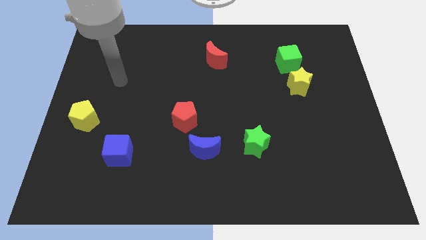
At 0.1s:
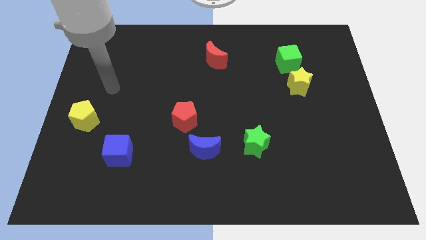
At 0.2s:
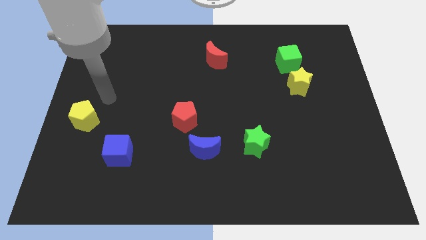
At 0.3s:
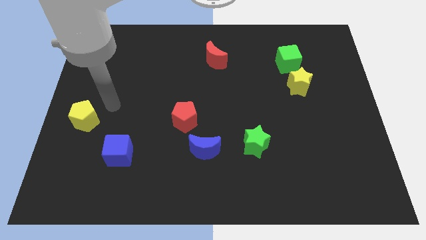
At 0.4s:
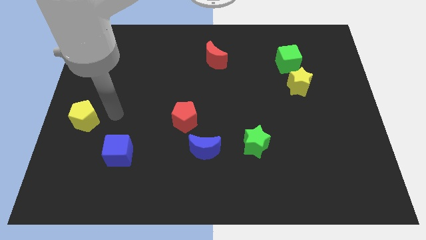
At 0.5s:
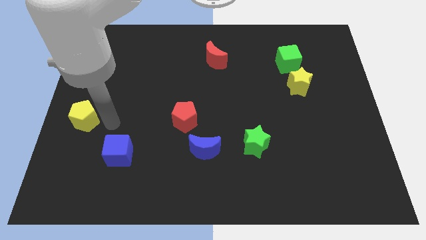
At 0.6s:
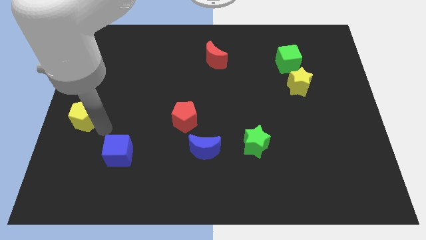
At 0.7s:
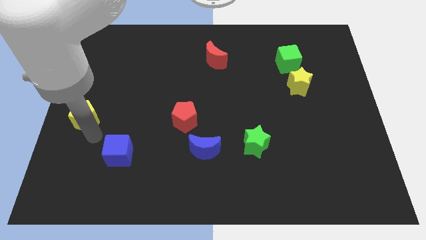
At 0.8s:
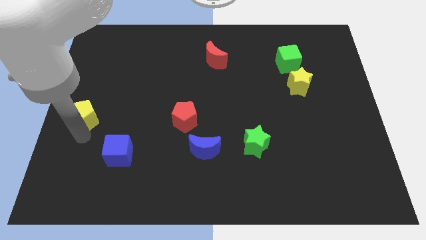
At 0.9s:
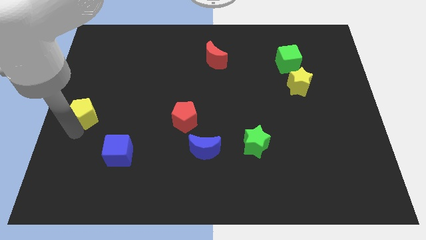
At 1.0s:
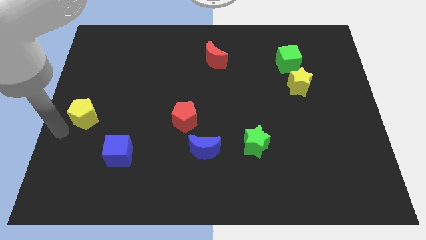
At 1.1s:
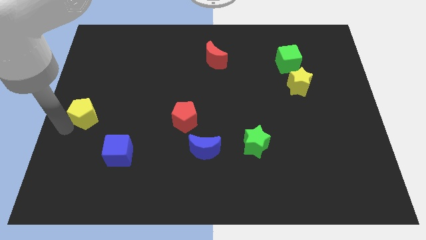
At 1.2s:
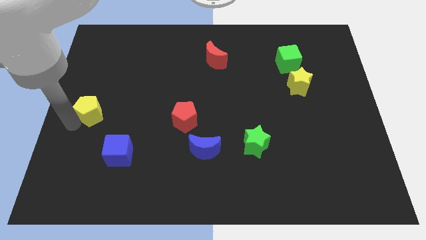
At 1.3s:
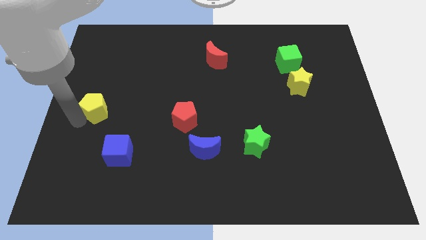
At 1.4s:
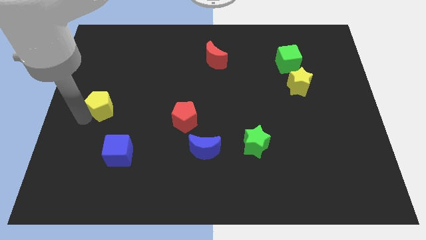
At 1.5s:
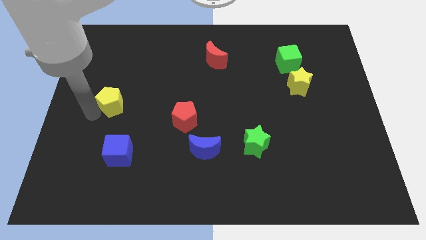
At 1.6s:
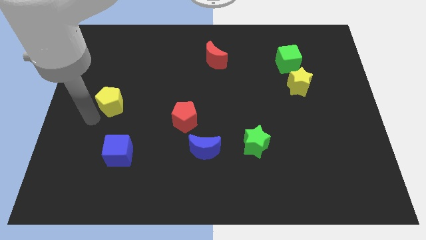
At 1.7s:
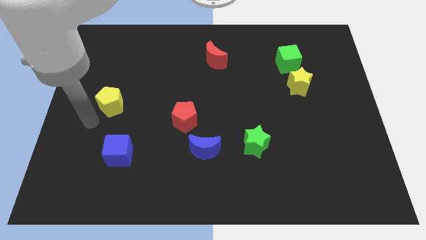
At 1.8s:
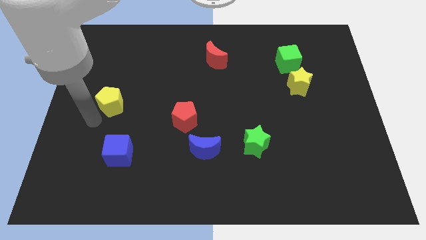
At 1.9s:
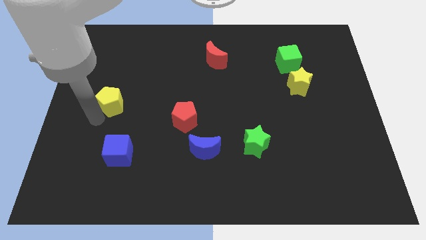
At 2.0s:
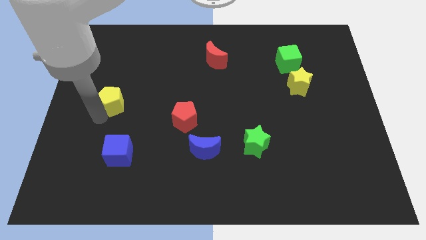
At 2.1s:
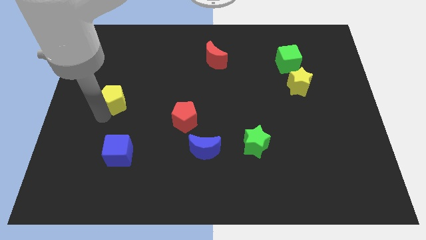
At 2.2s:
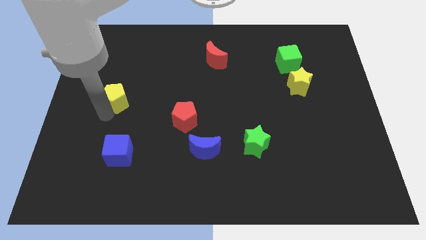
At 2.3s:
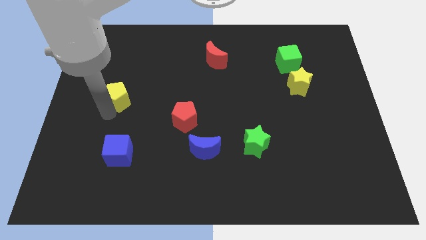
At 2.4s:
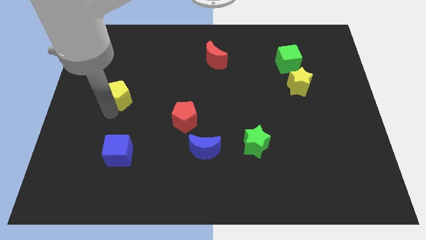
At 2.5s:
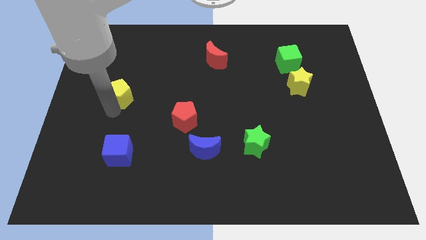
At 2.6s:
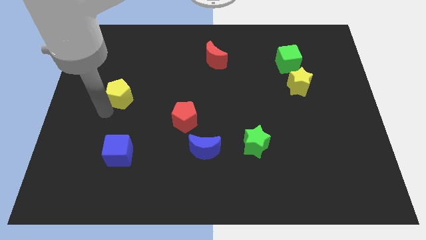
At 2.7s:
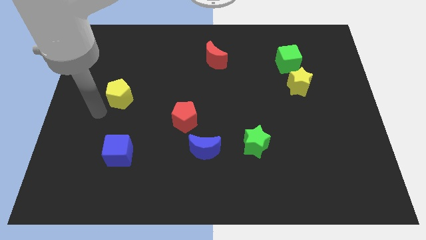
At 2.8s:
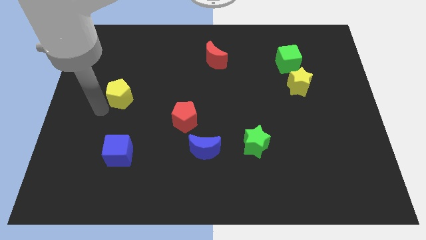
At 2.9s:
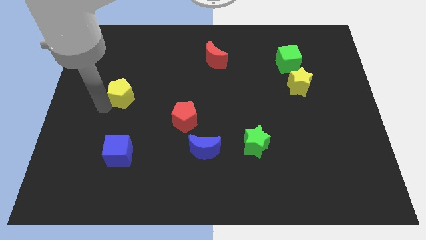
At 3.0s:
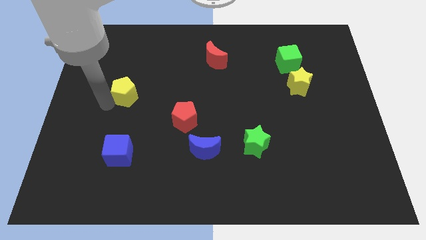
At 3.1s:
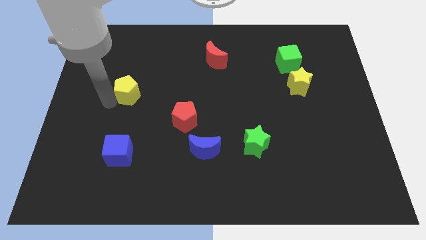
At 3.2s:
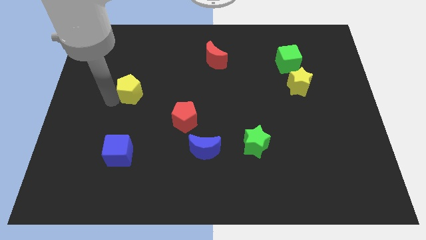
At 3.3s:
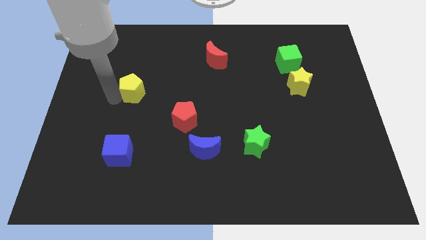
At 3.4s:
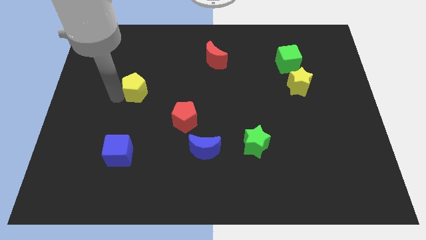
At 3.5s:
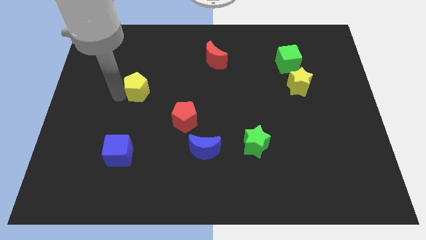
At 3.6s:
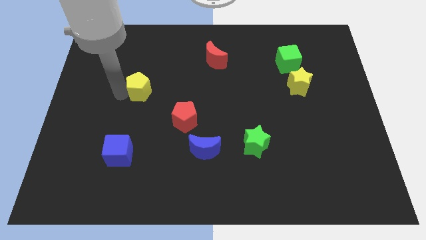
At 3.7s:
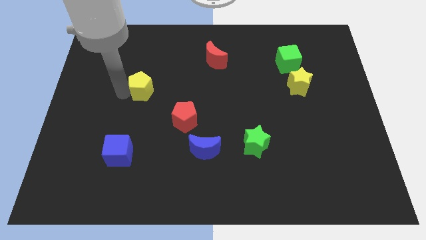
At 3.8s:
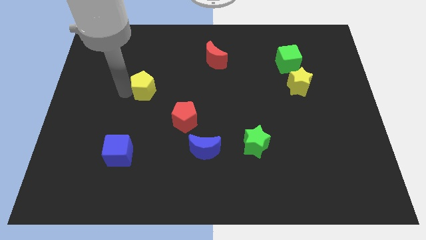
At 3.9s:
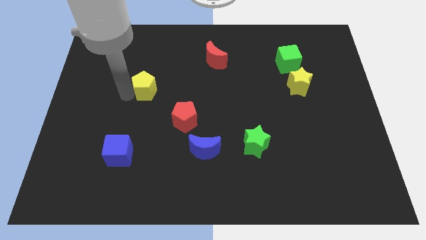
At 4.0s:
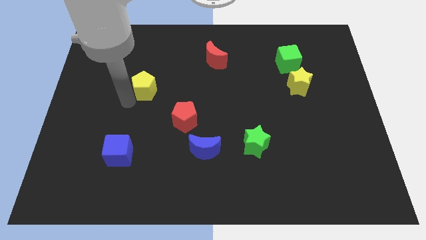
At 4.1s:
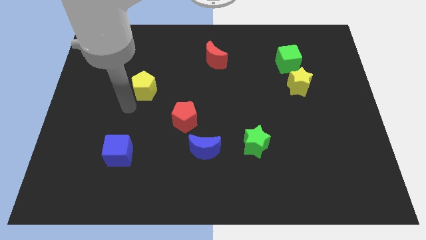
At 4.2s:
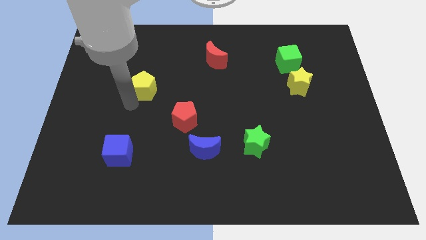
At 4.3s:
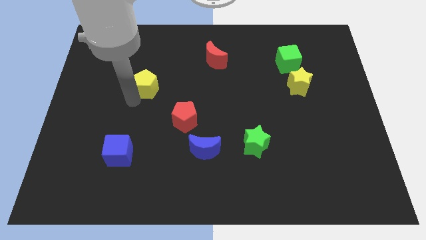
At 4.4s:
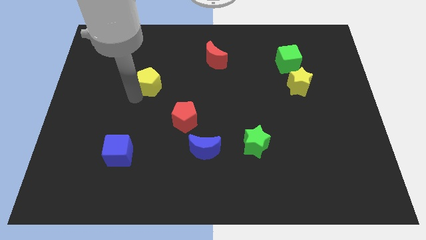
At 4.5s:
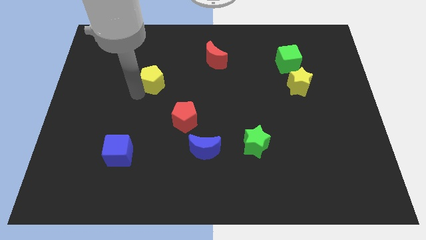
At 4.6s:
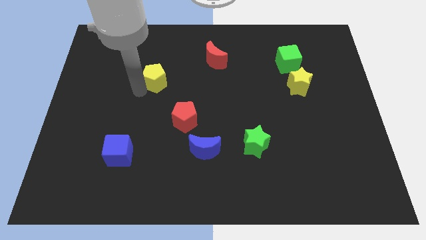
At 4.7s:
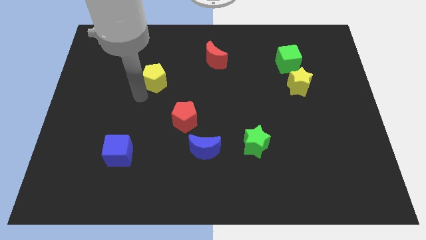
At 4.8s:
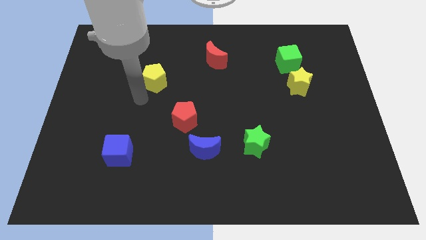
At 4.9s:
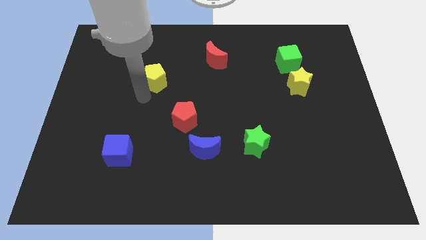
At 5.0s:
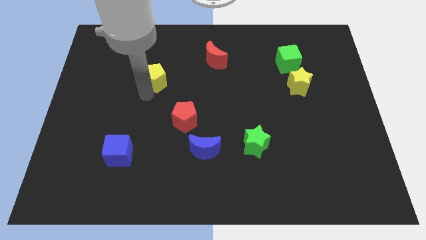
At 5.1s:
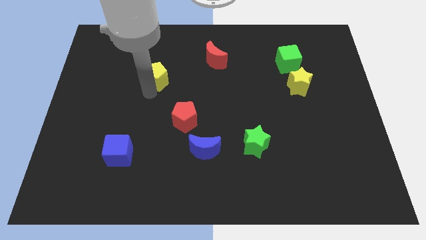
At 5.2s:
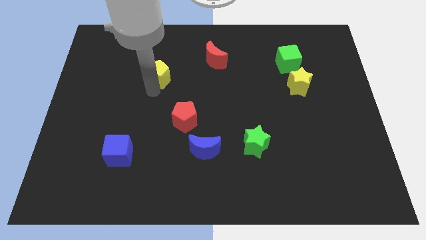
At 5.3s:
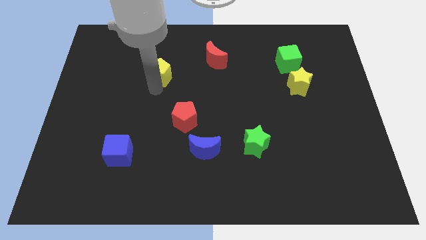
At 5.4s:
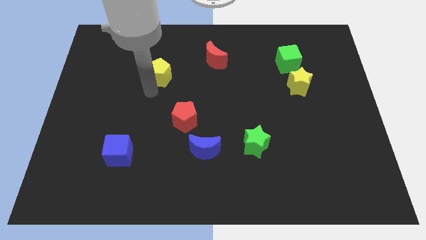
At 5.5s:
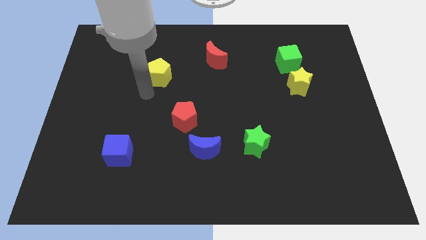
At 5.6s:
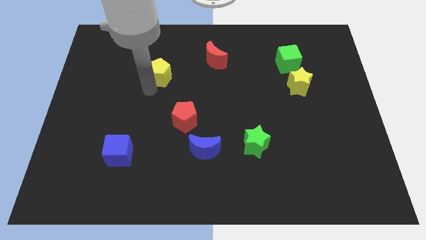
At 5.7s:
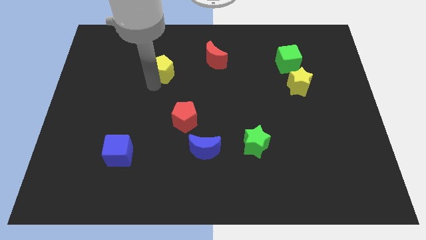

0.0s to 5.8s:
put the yellow pentagon to the left of the red moon

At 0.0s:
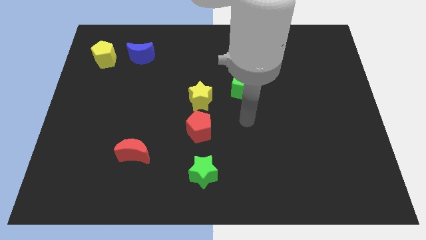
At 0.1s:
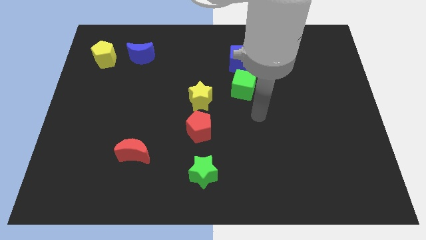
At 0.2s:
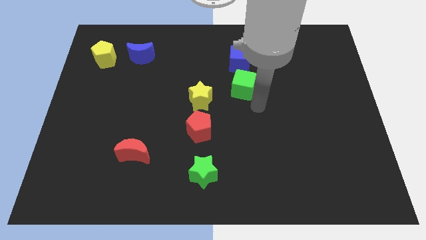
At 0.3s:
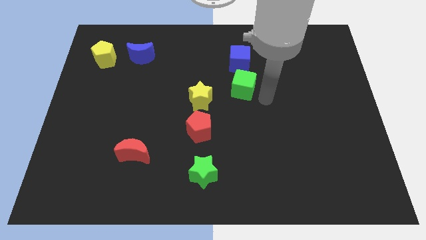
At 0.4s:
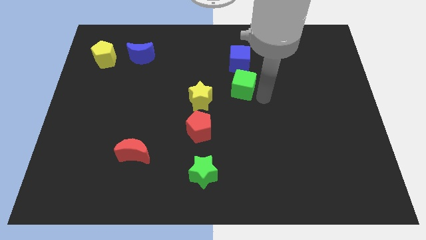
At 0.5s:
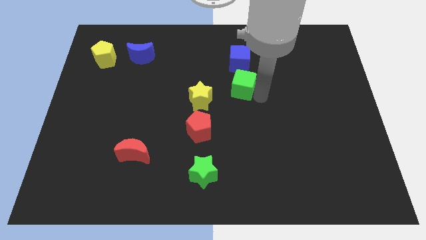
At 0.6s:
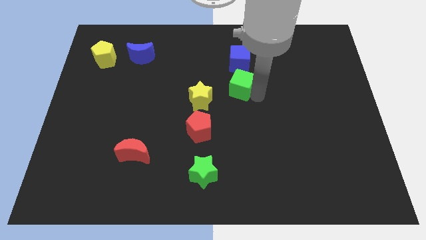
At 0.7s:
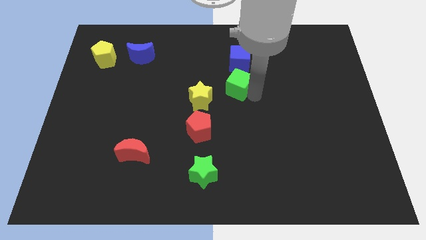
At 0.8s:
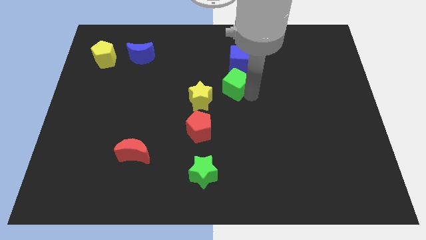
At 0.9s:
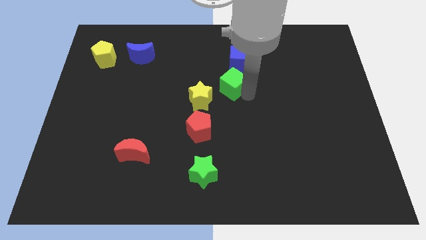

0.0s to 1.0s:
push the green cube diagonally down and to the left of the blue cube

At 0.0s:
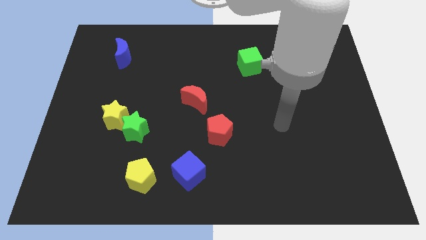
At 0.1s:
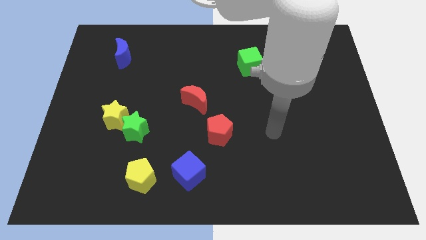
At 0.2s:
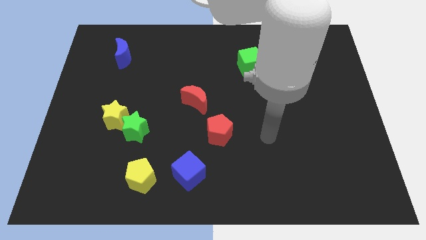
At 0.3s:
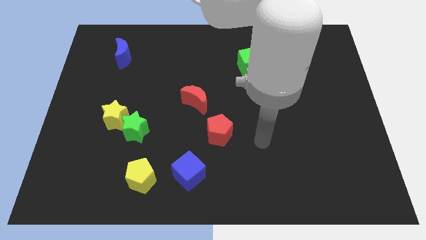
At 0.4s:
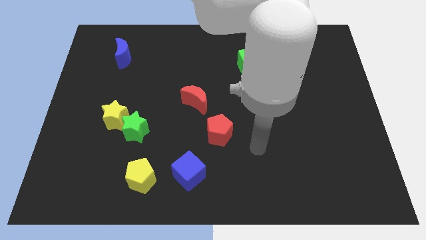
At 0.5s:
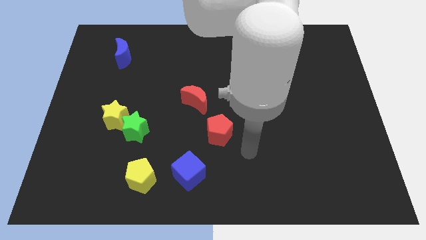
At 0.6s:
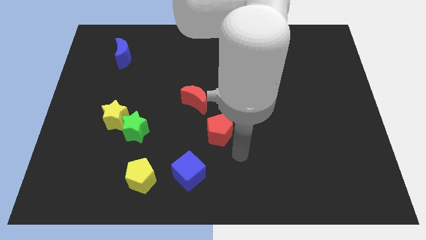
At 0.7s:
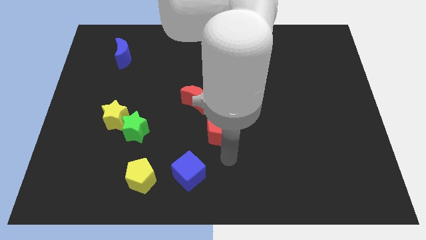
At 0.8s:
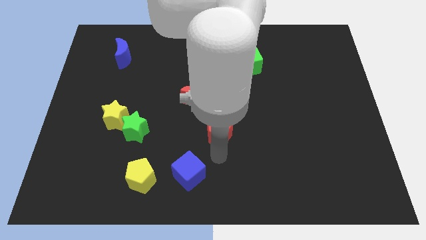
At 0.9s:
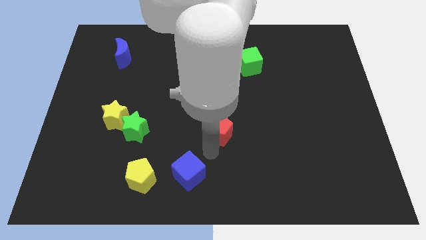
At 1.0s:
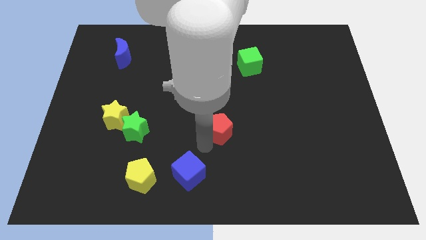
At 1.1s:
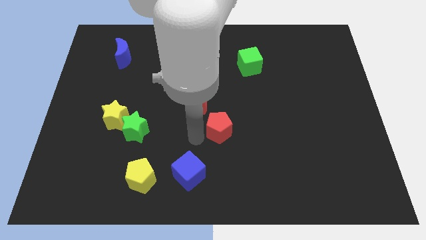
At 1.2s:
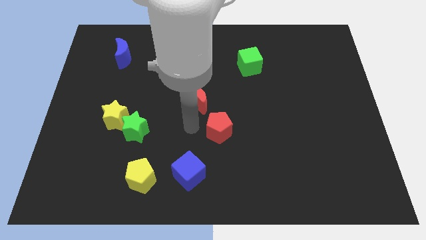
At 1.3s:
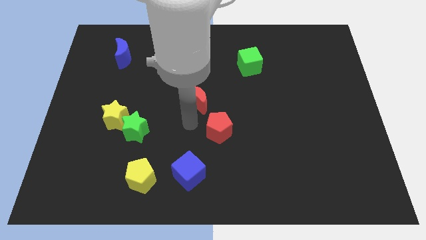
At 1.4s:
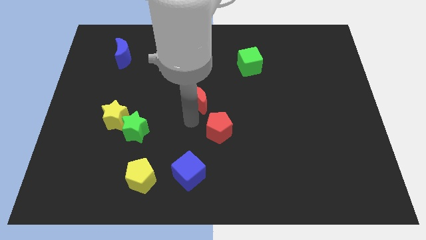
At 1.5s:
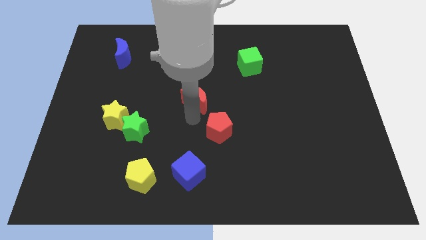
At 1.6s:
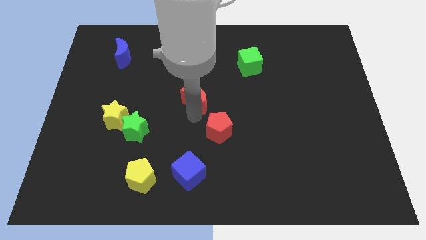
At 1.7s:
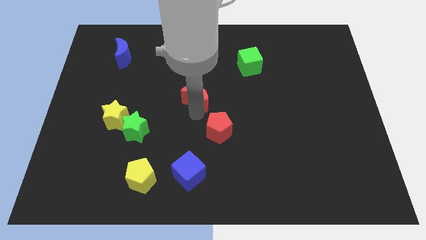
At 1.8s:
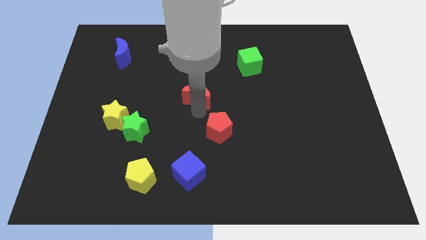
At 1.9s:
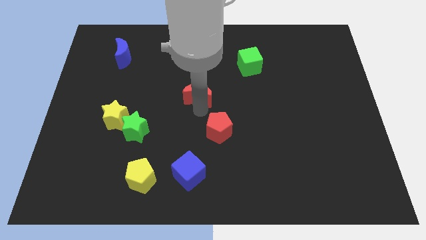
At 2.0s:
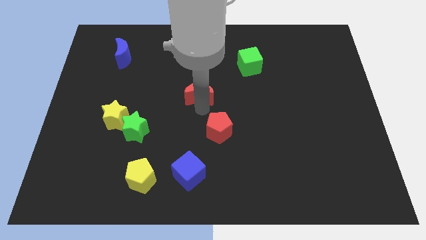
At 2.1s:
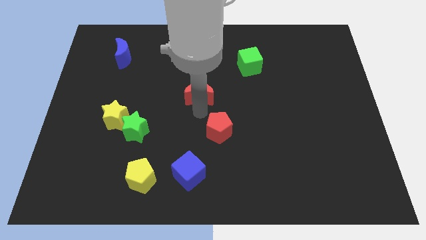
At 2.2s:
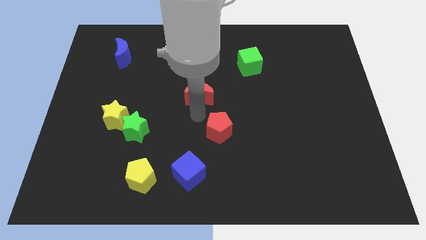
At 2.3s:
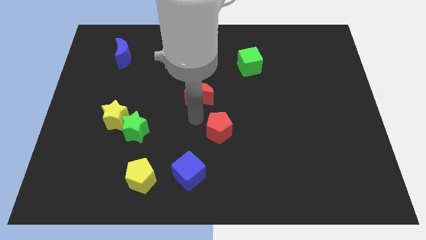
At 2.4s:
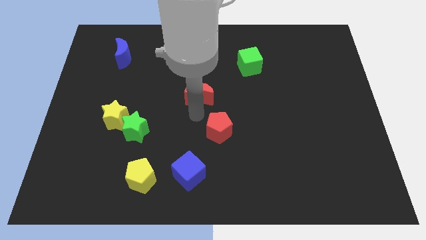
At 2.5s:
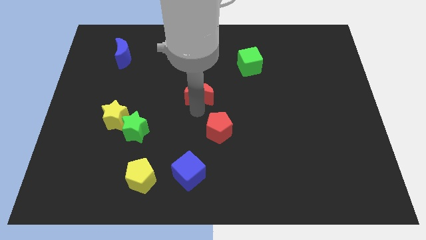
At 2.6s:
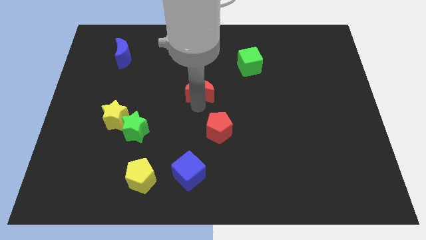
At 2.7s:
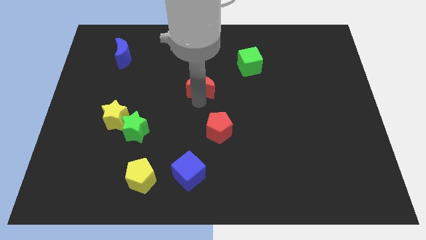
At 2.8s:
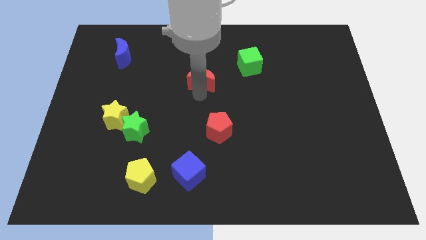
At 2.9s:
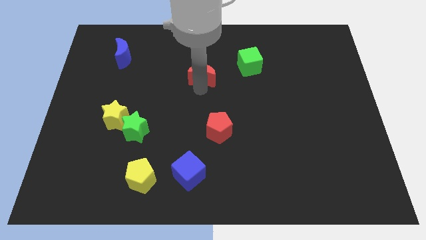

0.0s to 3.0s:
put the red moon to the left side of the green cube
